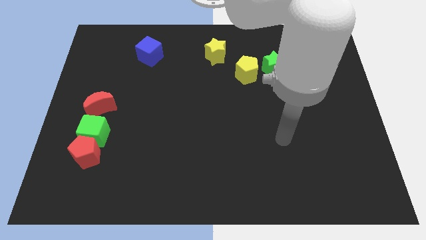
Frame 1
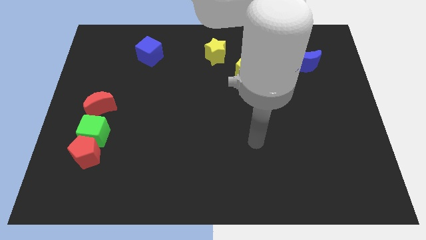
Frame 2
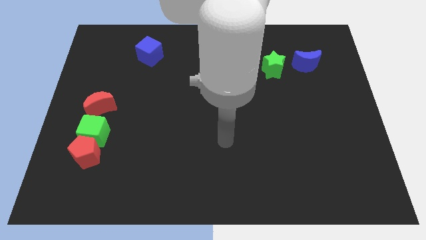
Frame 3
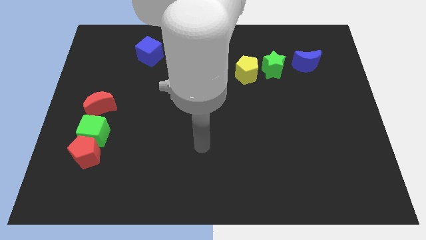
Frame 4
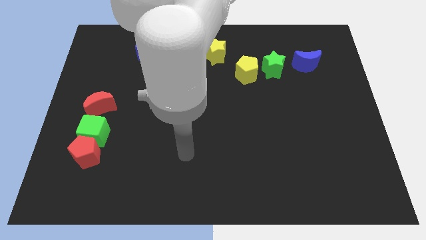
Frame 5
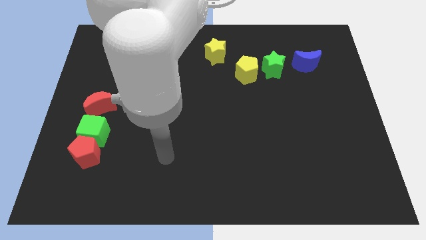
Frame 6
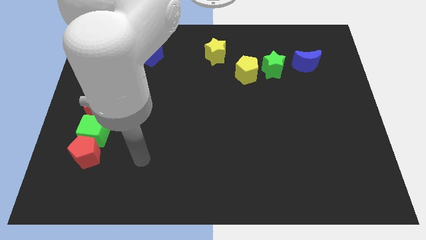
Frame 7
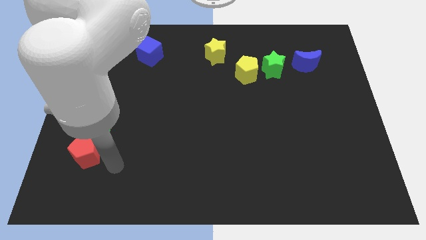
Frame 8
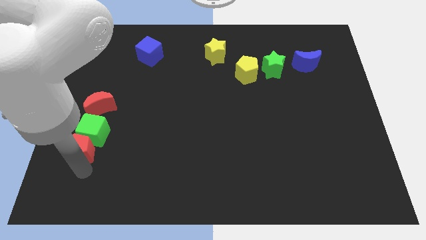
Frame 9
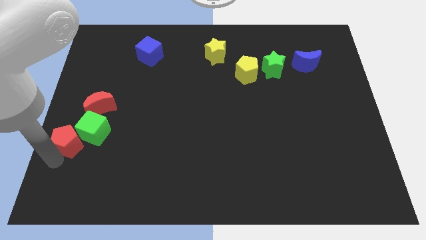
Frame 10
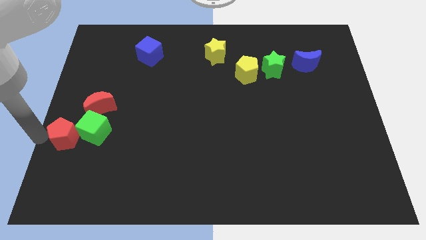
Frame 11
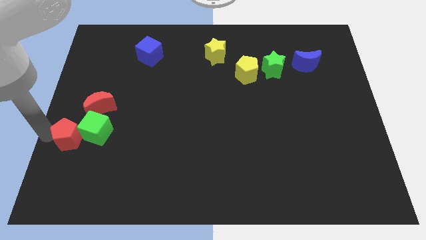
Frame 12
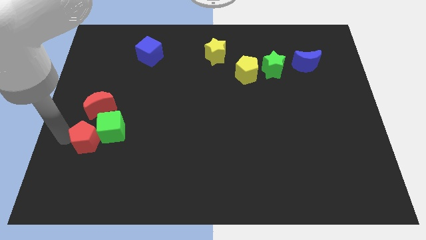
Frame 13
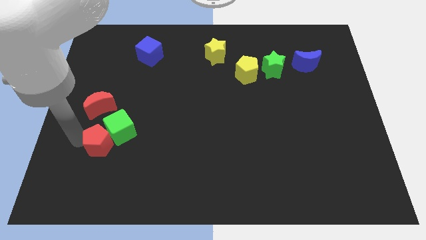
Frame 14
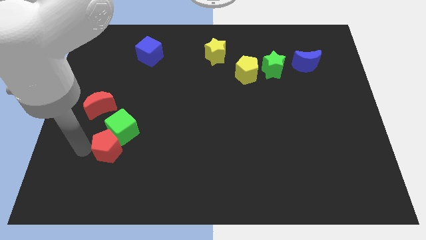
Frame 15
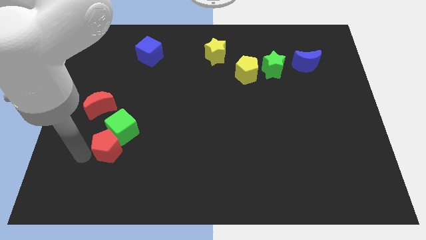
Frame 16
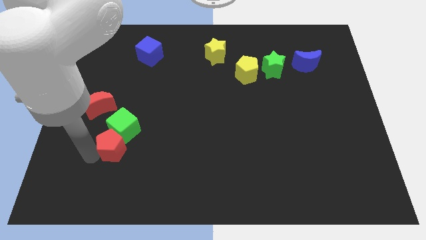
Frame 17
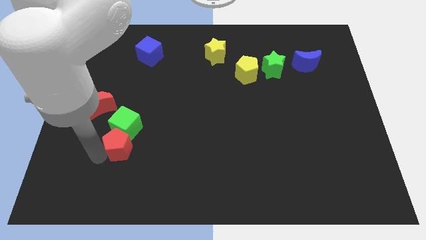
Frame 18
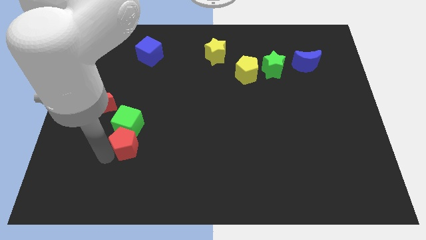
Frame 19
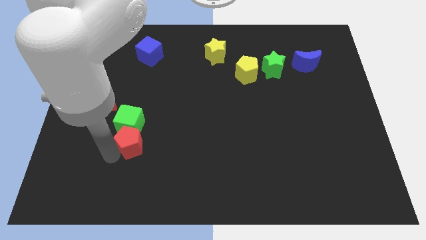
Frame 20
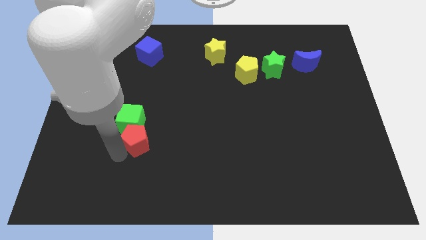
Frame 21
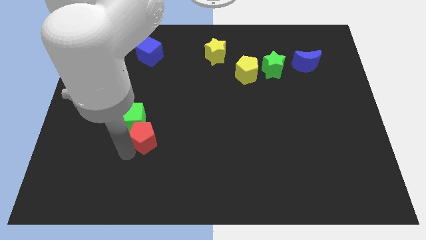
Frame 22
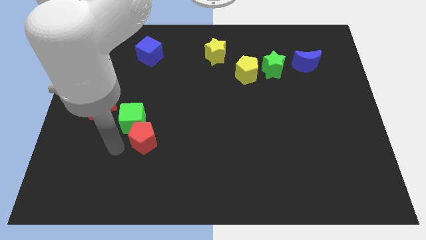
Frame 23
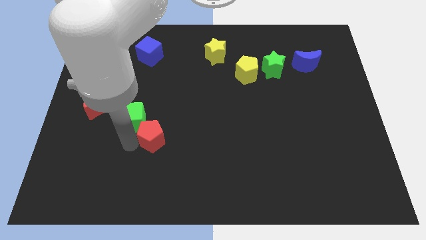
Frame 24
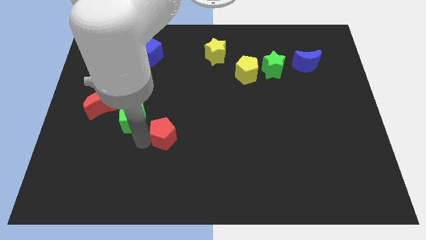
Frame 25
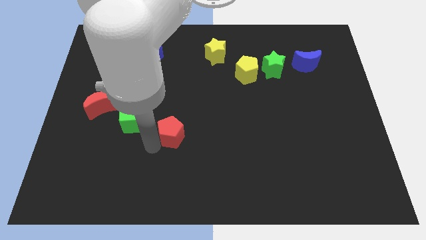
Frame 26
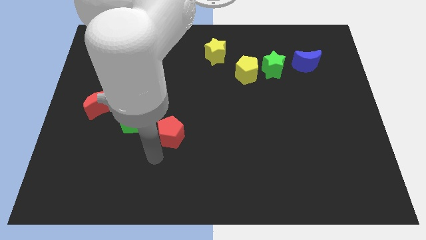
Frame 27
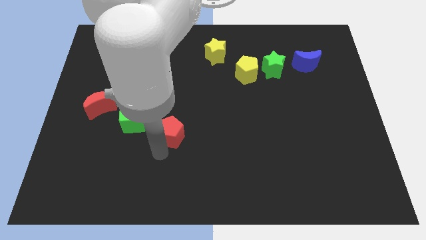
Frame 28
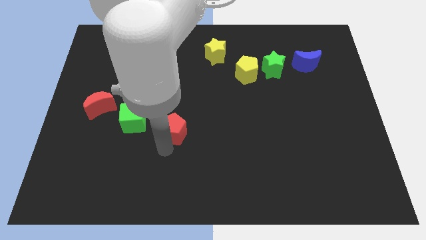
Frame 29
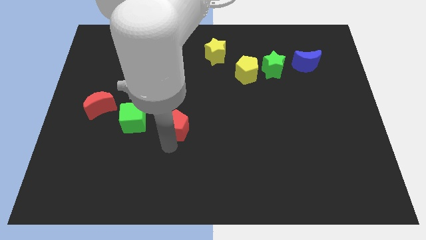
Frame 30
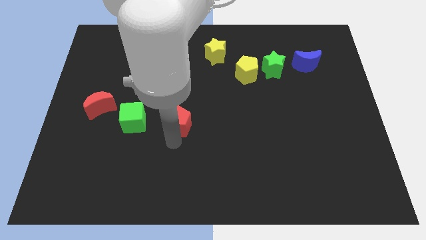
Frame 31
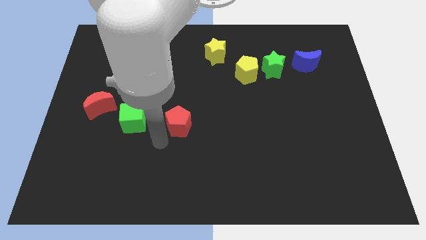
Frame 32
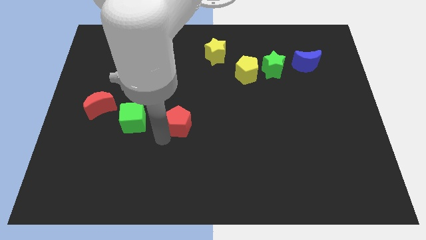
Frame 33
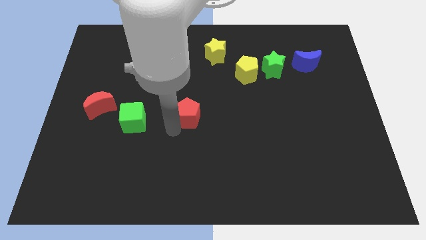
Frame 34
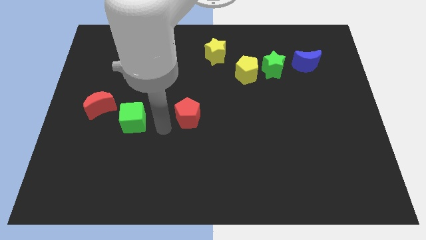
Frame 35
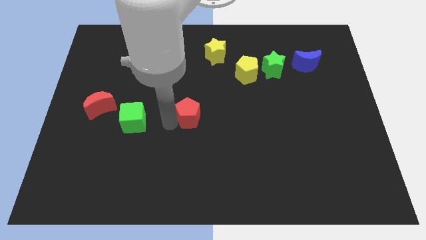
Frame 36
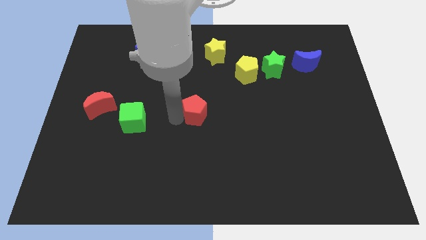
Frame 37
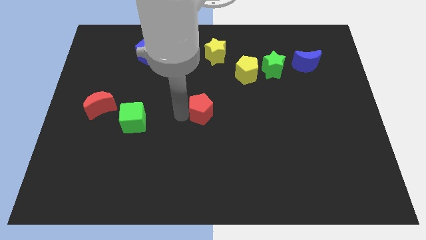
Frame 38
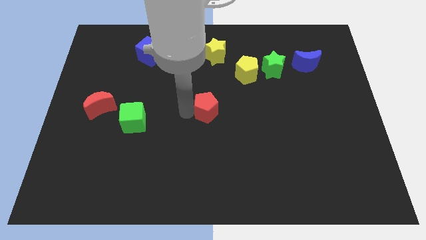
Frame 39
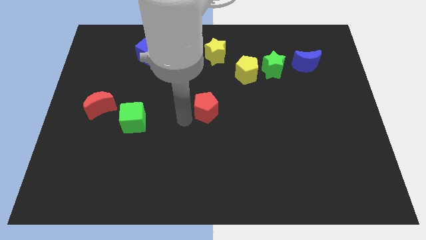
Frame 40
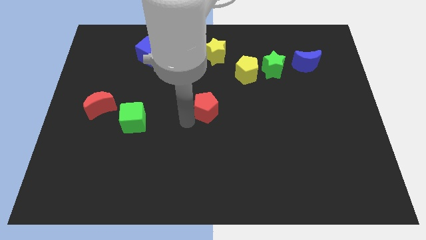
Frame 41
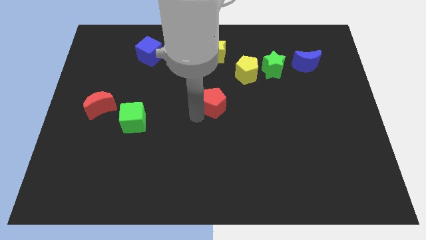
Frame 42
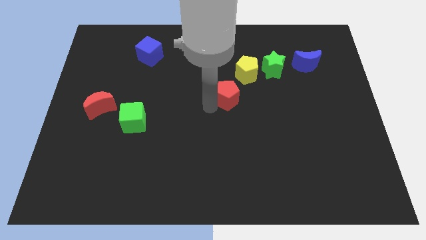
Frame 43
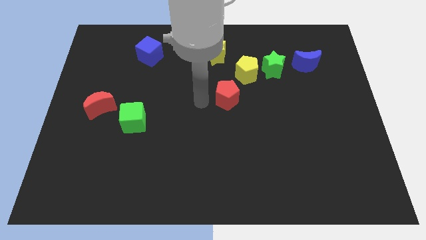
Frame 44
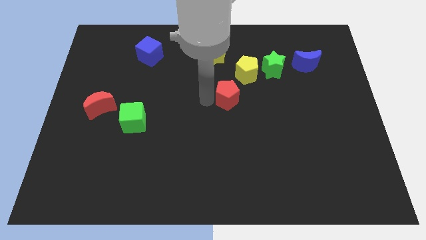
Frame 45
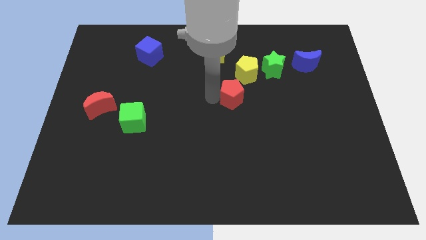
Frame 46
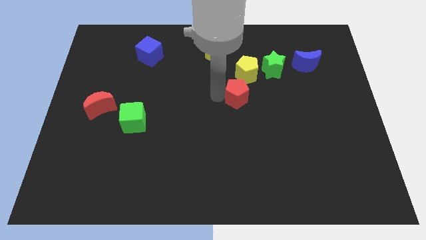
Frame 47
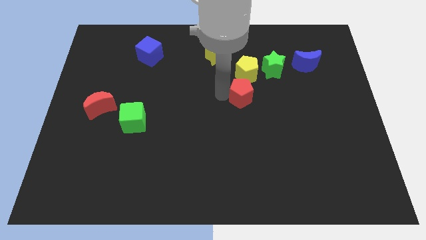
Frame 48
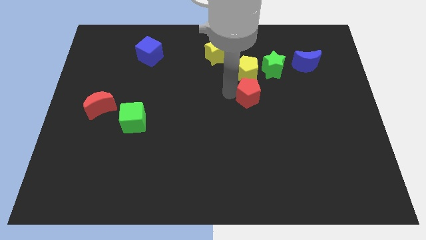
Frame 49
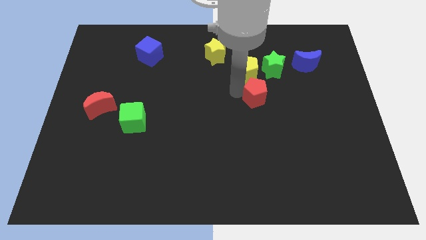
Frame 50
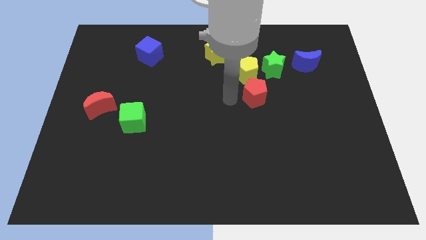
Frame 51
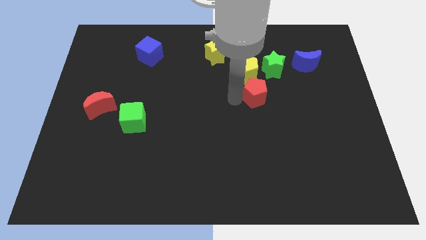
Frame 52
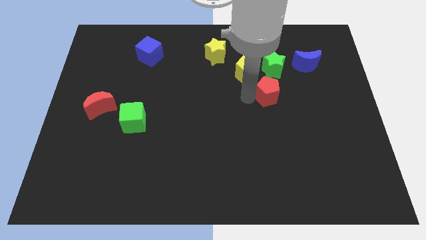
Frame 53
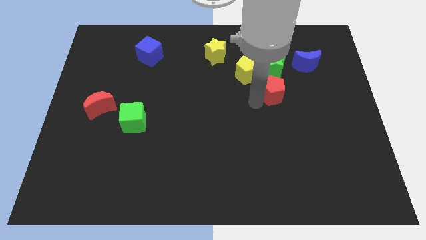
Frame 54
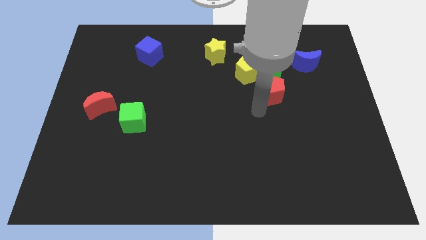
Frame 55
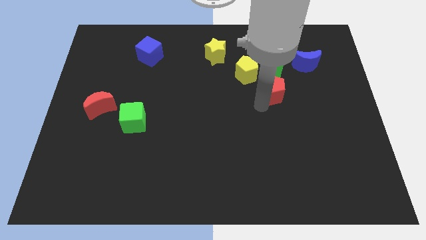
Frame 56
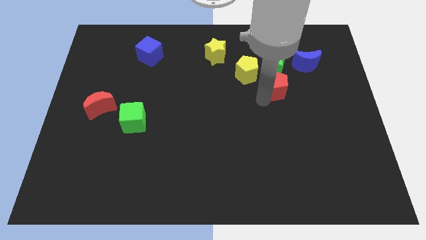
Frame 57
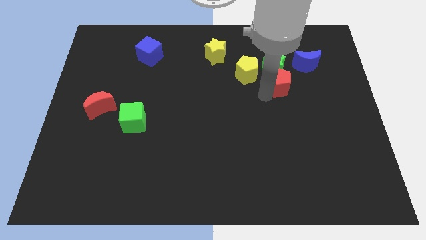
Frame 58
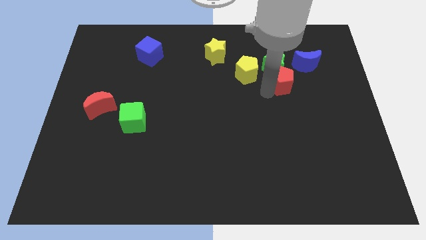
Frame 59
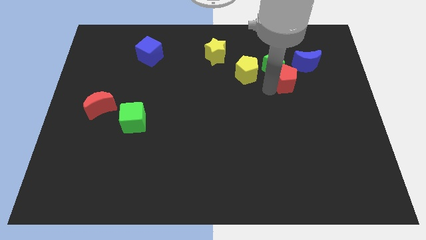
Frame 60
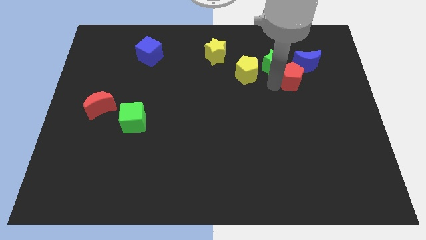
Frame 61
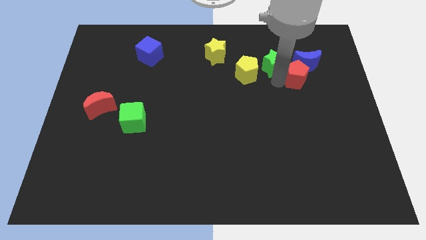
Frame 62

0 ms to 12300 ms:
slide the red pentagon towards the blue moon

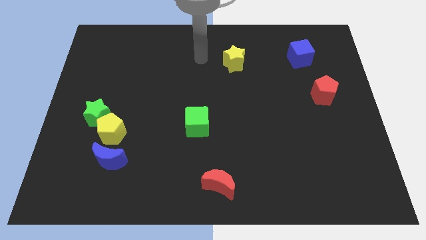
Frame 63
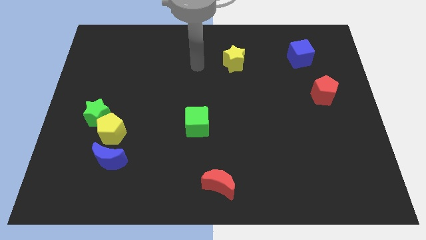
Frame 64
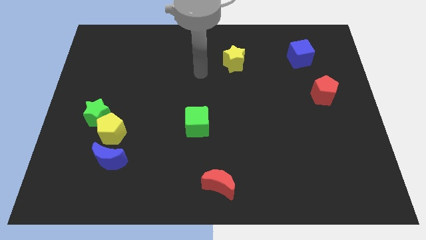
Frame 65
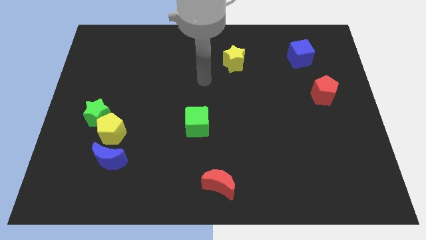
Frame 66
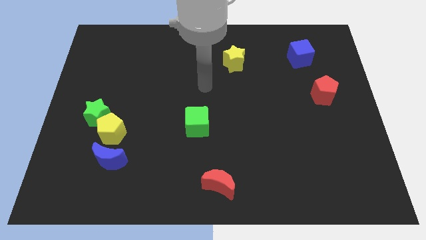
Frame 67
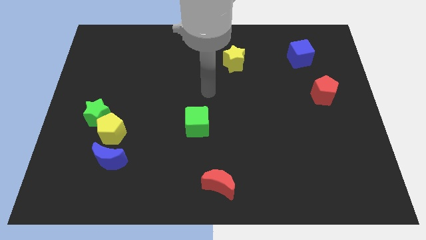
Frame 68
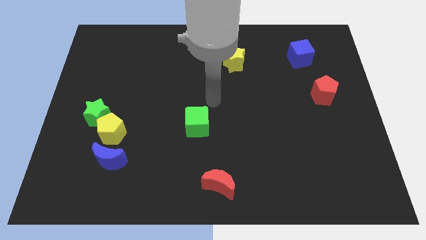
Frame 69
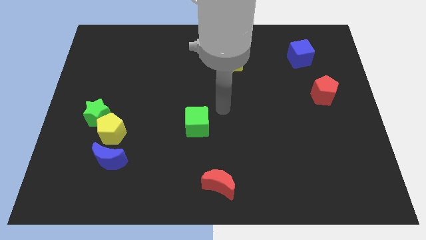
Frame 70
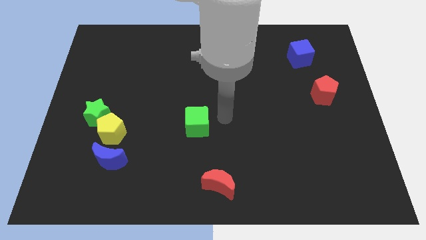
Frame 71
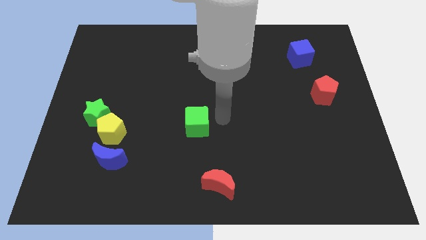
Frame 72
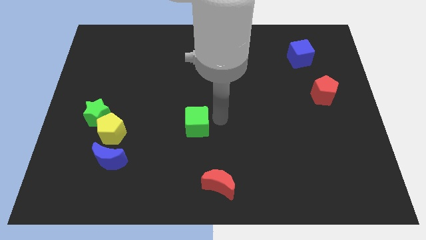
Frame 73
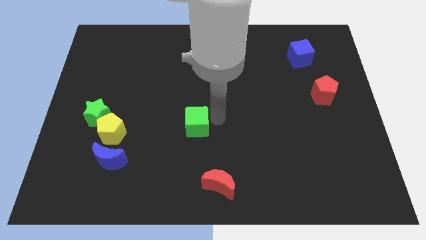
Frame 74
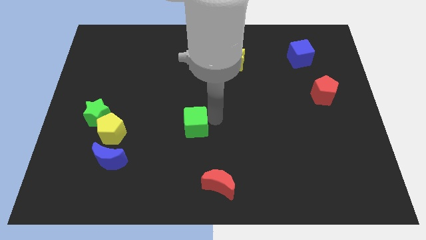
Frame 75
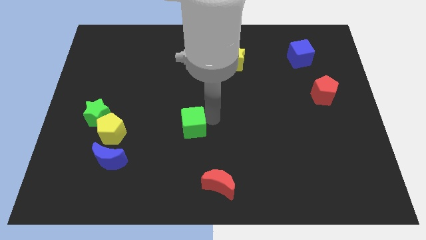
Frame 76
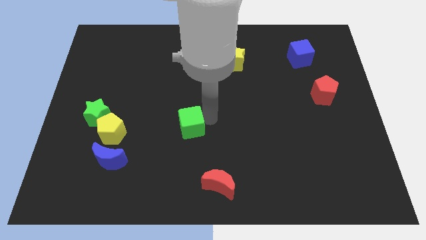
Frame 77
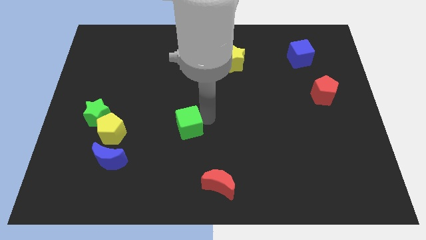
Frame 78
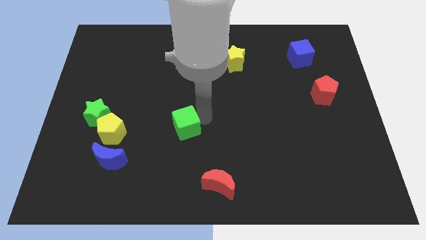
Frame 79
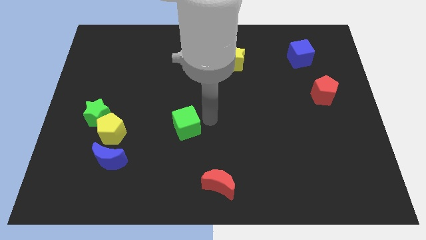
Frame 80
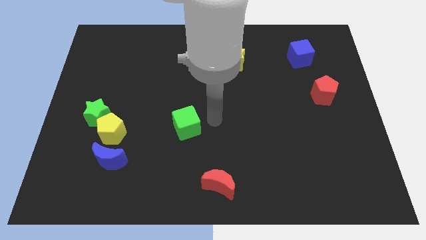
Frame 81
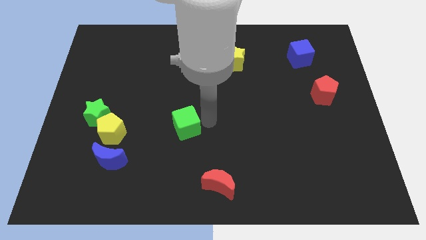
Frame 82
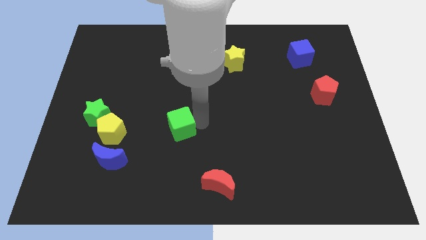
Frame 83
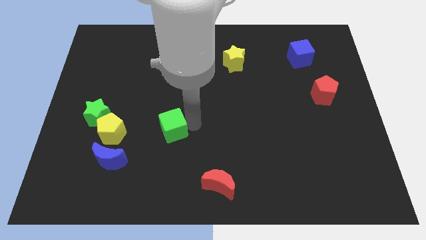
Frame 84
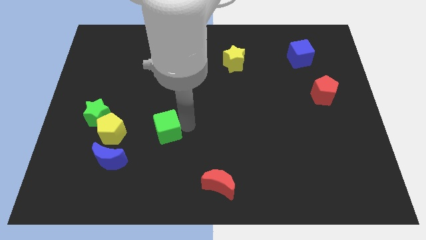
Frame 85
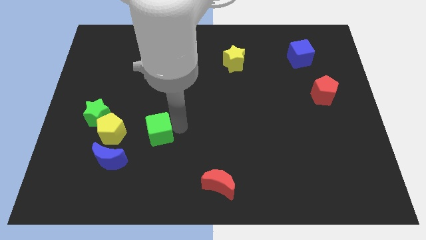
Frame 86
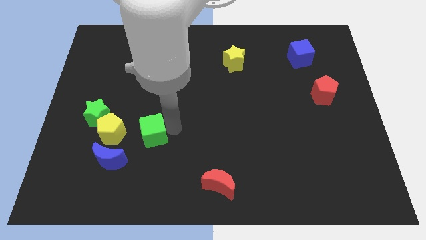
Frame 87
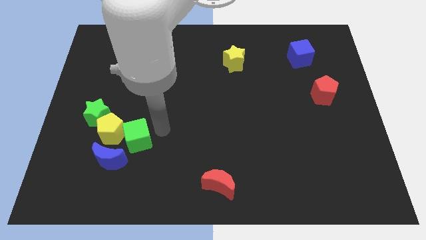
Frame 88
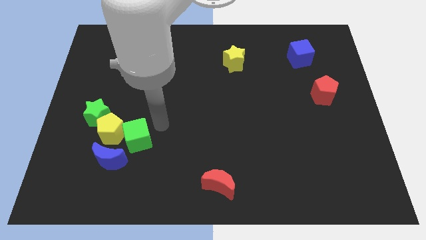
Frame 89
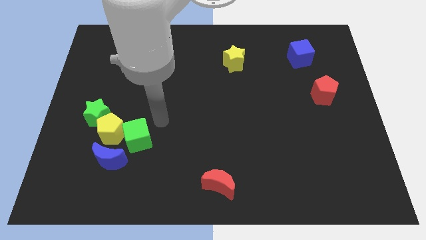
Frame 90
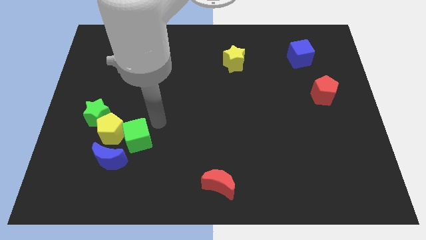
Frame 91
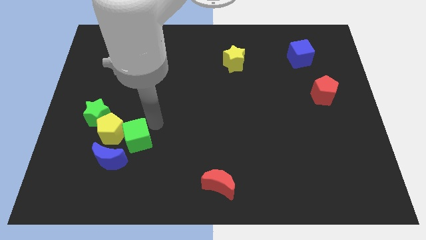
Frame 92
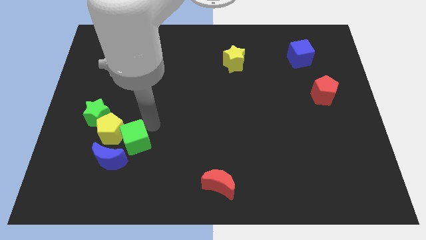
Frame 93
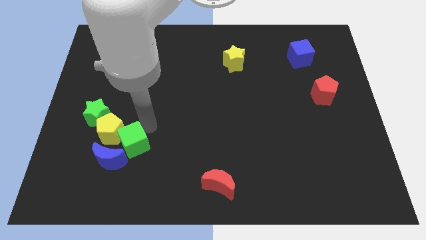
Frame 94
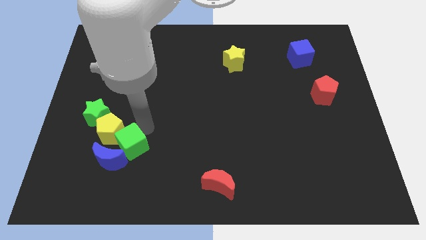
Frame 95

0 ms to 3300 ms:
move the green cube to the blue moon
